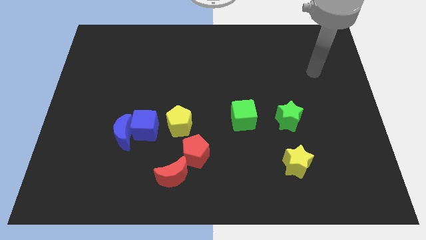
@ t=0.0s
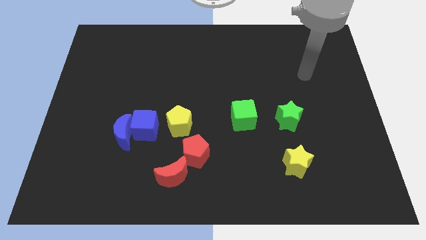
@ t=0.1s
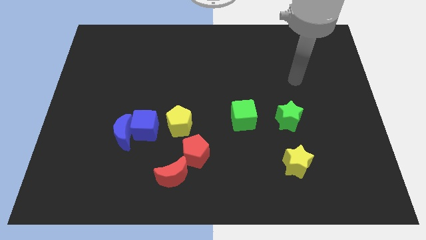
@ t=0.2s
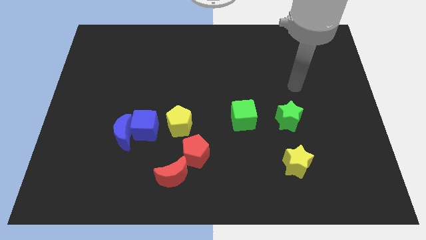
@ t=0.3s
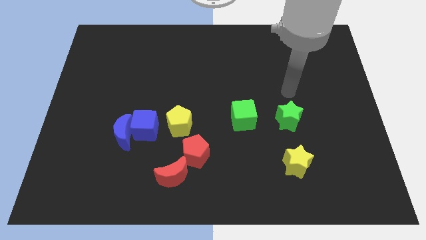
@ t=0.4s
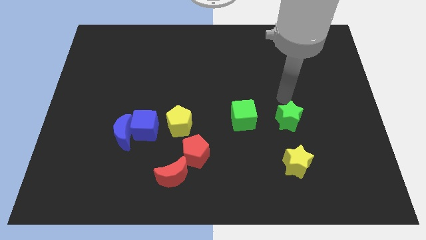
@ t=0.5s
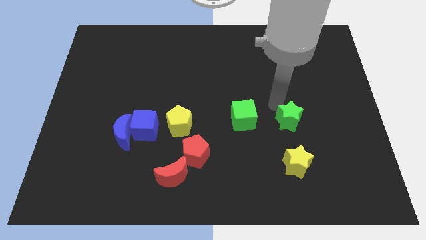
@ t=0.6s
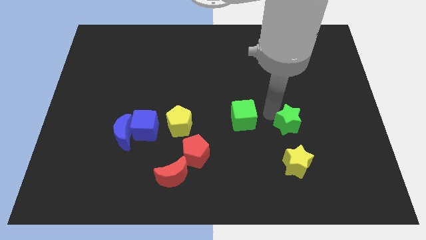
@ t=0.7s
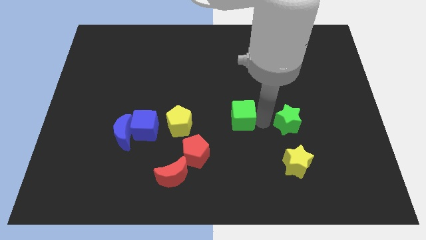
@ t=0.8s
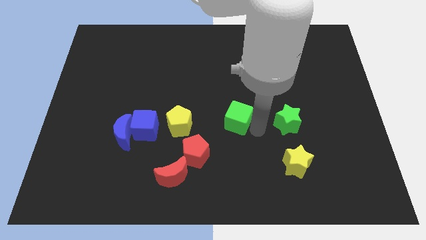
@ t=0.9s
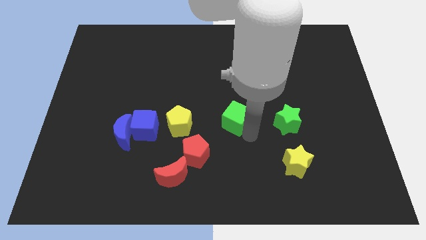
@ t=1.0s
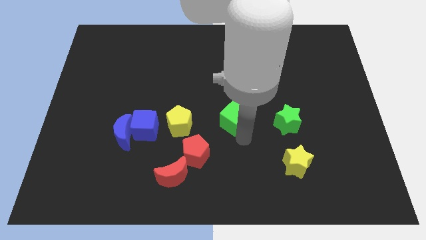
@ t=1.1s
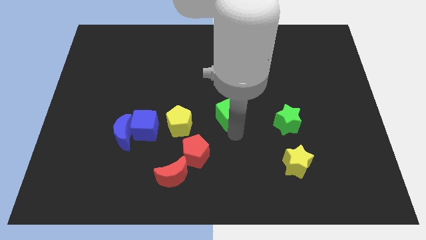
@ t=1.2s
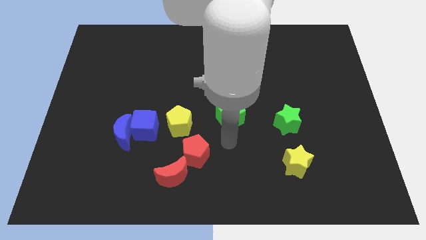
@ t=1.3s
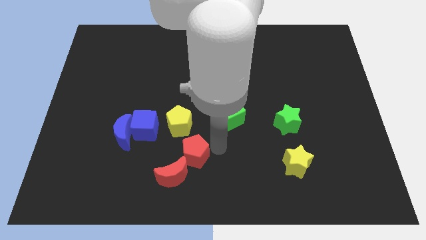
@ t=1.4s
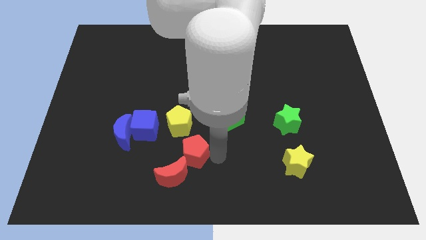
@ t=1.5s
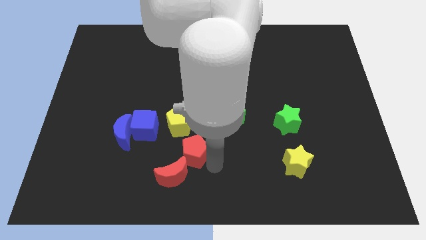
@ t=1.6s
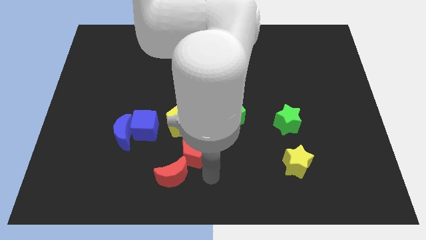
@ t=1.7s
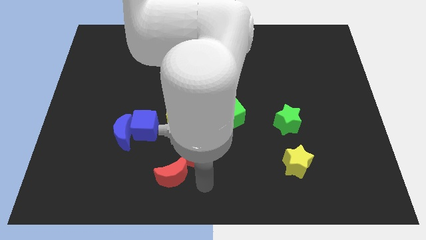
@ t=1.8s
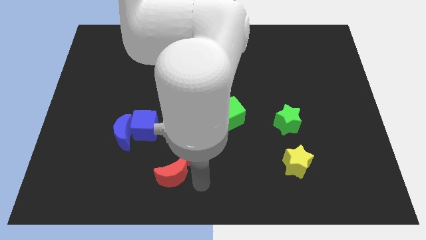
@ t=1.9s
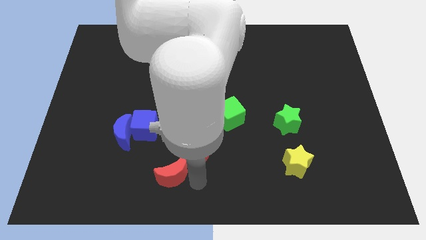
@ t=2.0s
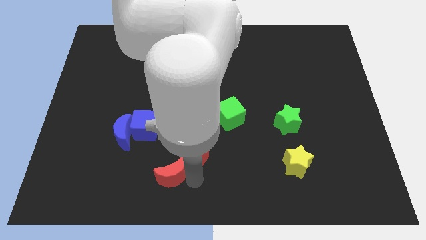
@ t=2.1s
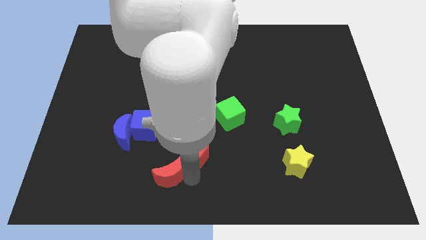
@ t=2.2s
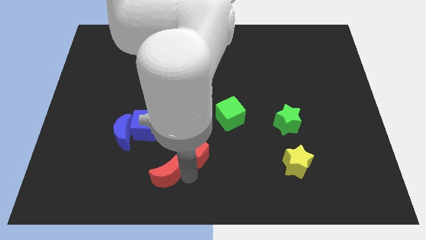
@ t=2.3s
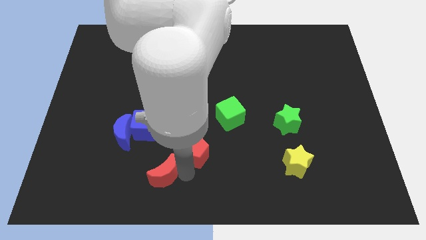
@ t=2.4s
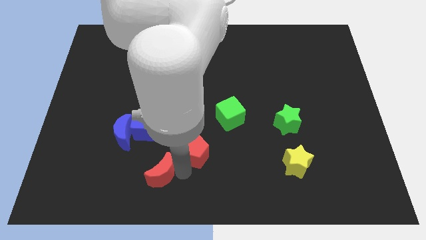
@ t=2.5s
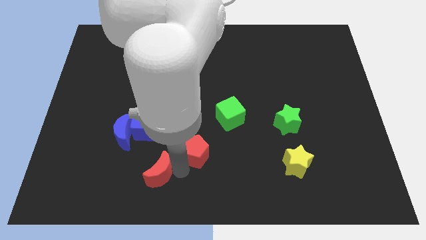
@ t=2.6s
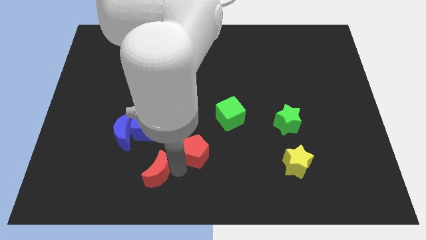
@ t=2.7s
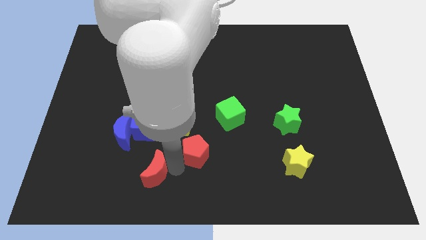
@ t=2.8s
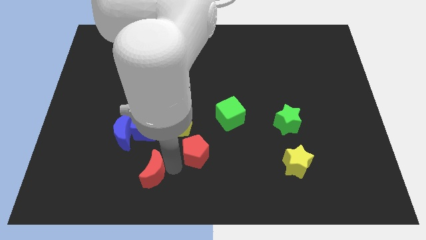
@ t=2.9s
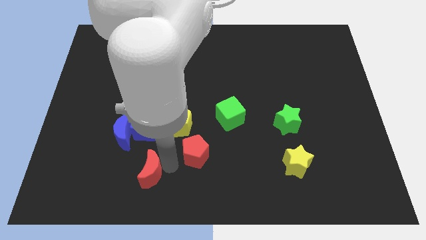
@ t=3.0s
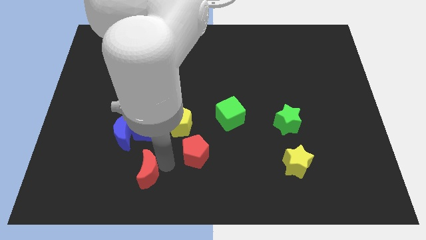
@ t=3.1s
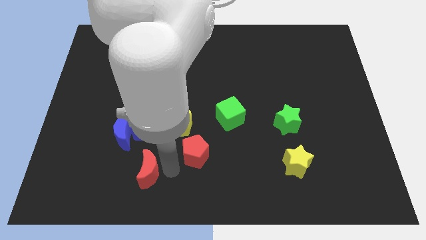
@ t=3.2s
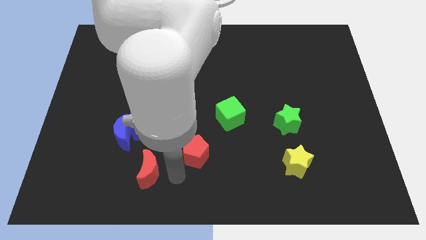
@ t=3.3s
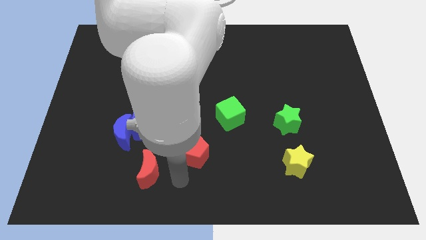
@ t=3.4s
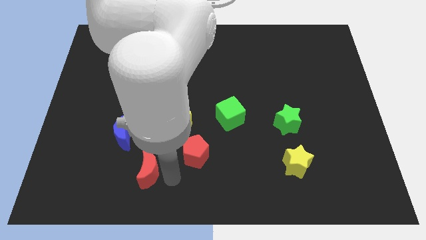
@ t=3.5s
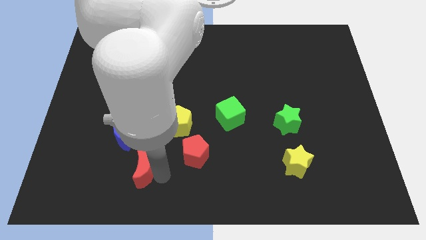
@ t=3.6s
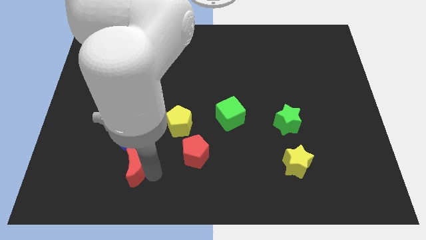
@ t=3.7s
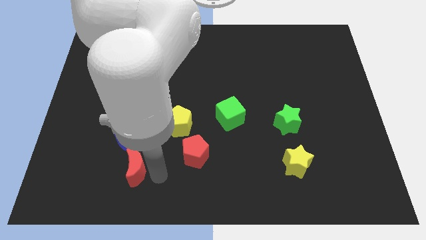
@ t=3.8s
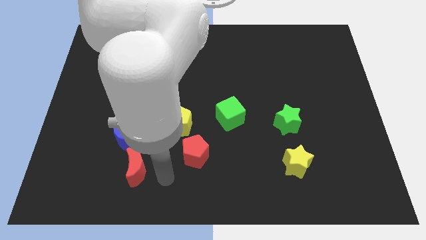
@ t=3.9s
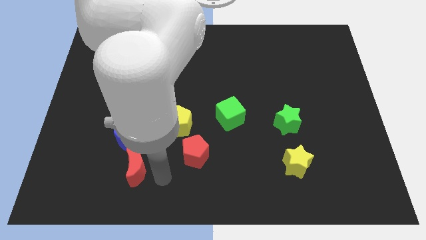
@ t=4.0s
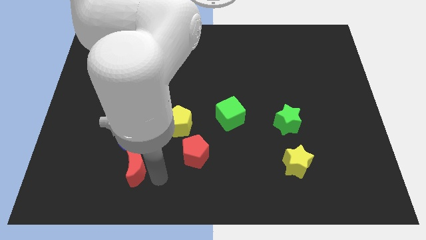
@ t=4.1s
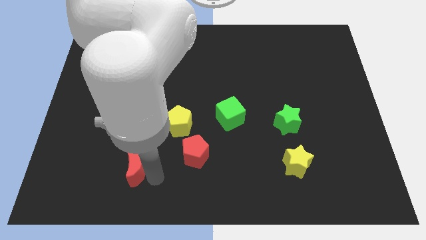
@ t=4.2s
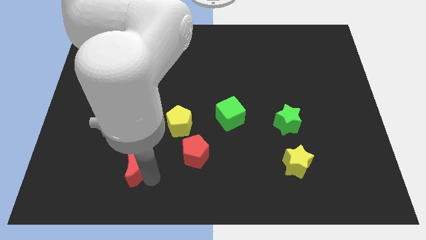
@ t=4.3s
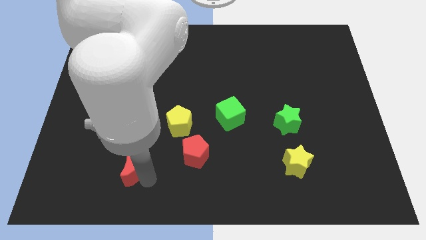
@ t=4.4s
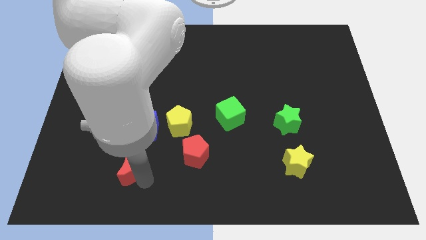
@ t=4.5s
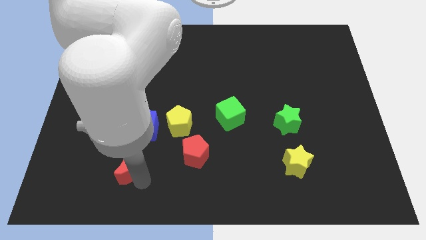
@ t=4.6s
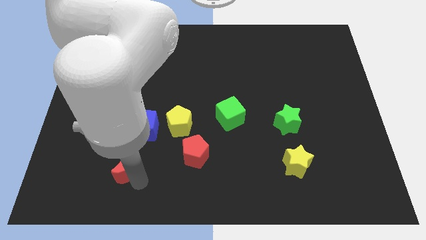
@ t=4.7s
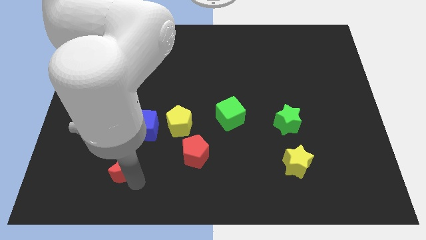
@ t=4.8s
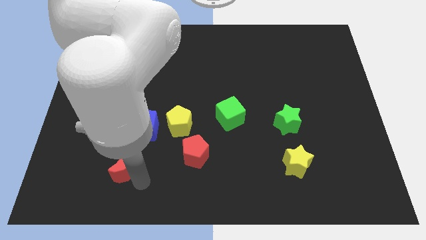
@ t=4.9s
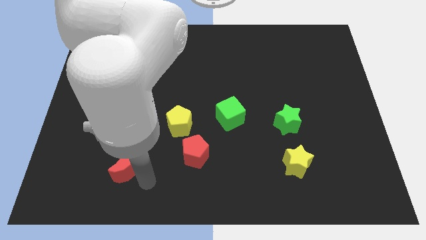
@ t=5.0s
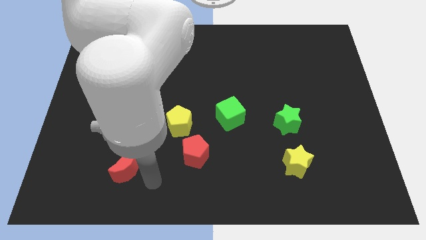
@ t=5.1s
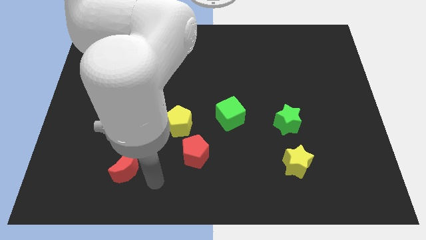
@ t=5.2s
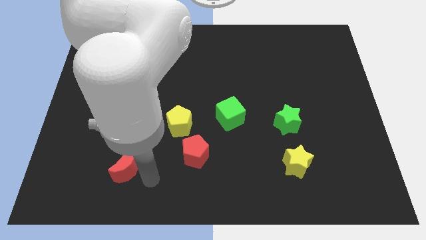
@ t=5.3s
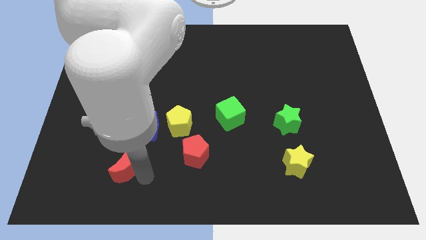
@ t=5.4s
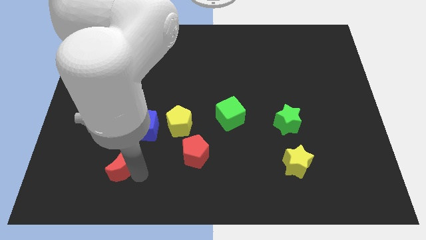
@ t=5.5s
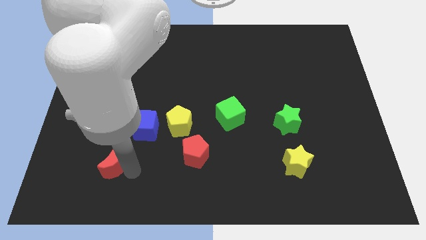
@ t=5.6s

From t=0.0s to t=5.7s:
move the red moon to the bottom left side of the blue moon

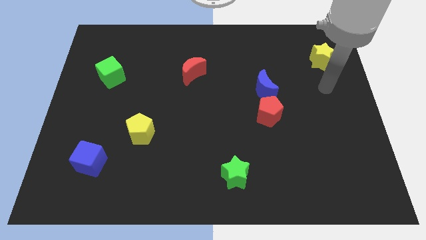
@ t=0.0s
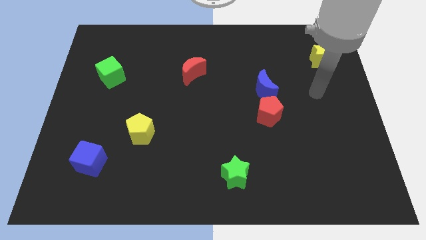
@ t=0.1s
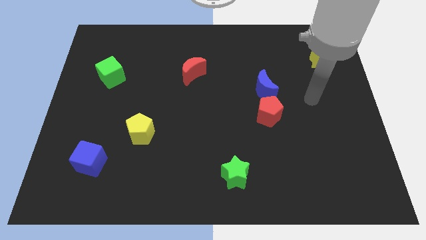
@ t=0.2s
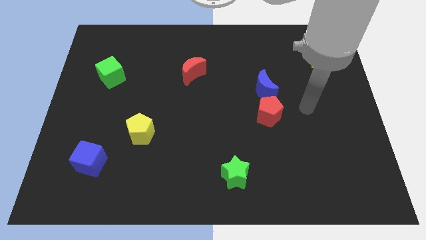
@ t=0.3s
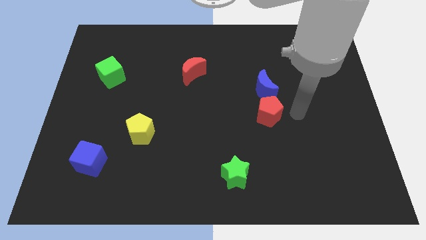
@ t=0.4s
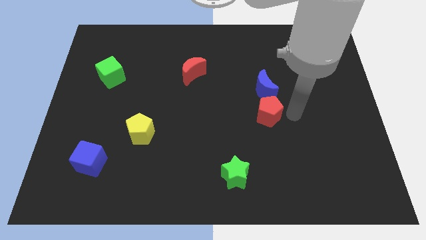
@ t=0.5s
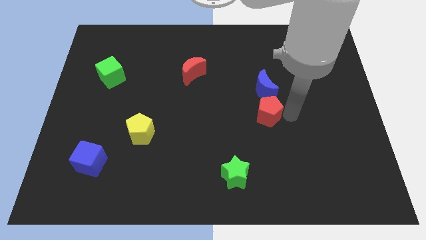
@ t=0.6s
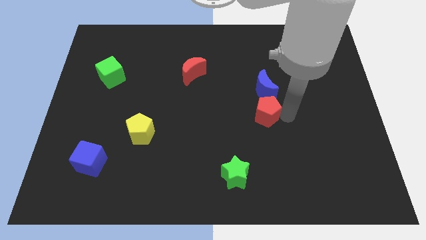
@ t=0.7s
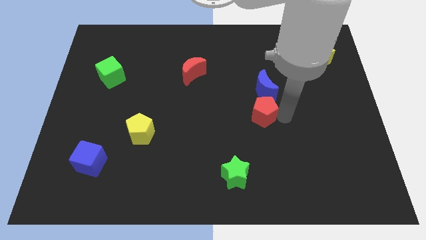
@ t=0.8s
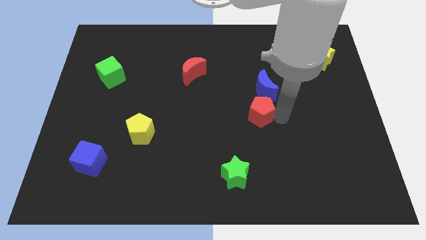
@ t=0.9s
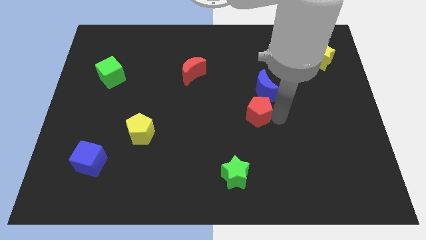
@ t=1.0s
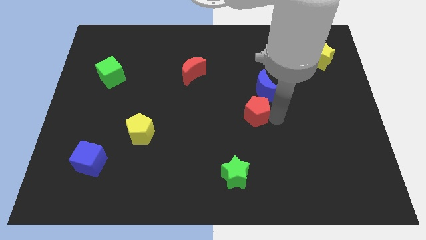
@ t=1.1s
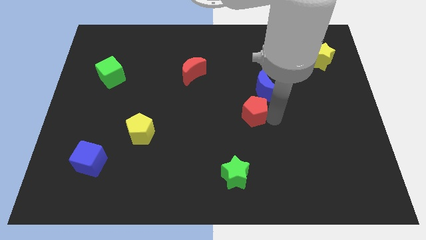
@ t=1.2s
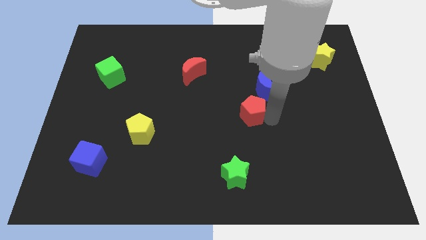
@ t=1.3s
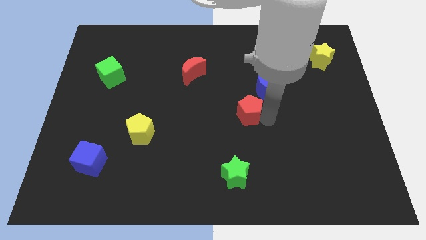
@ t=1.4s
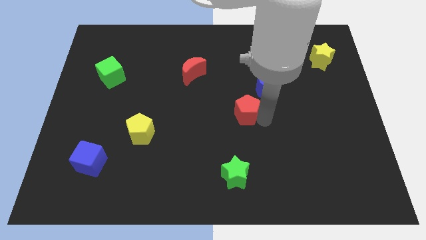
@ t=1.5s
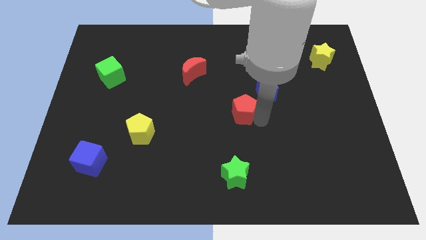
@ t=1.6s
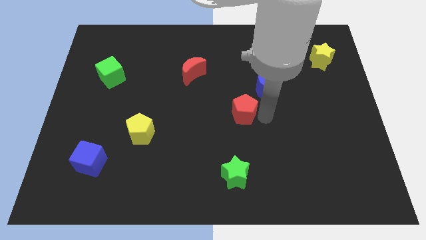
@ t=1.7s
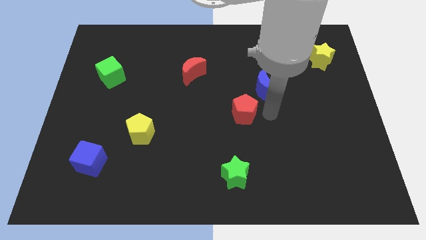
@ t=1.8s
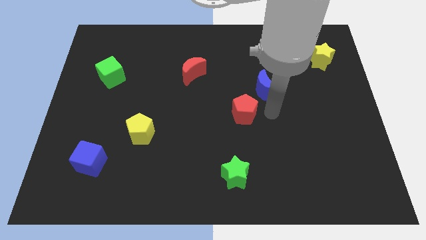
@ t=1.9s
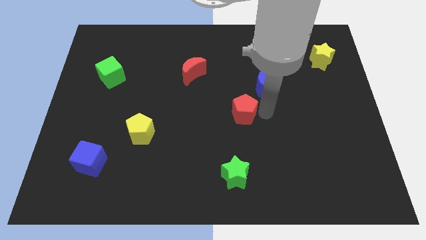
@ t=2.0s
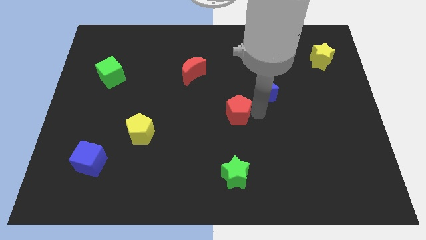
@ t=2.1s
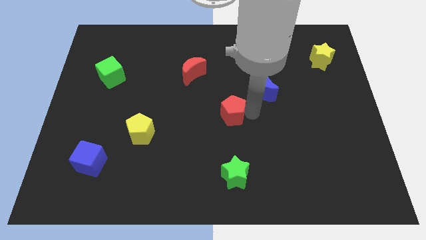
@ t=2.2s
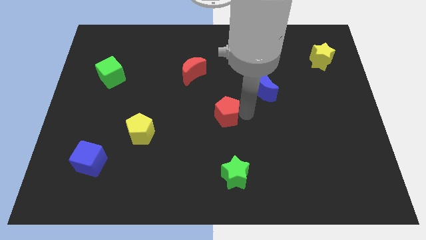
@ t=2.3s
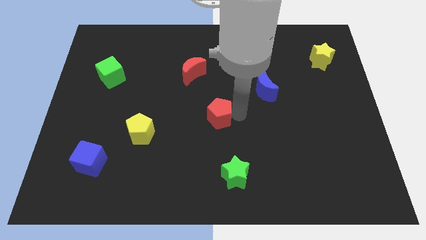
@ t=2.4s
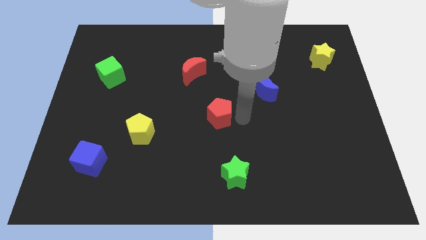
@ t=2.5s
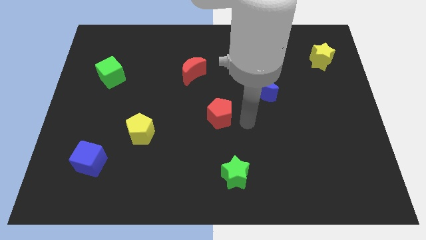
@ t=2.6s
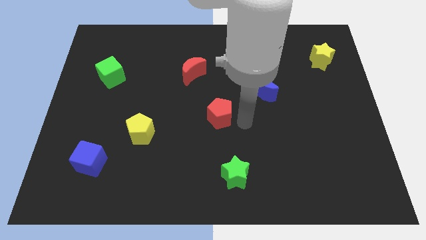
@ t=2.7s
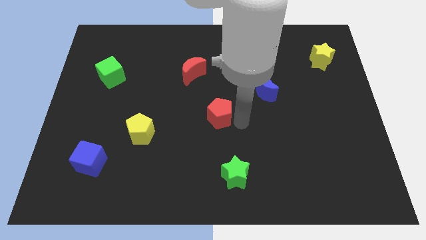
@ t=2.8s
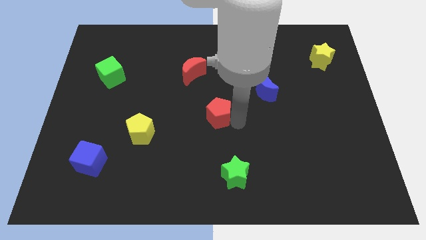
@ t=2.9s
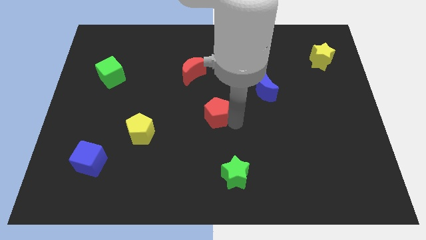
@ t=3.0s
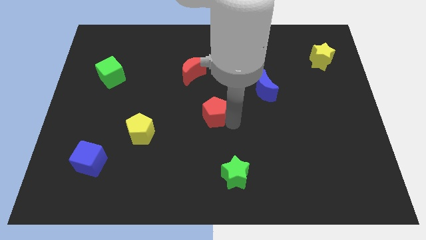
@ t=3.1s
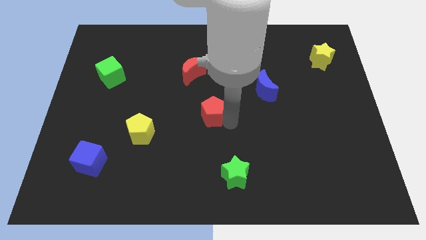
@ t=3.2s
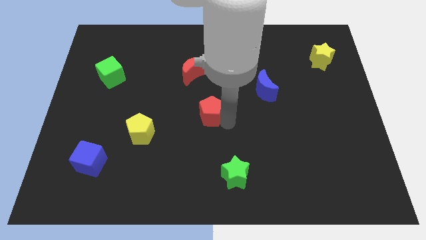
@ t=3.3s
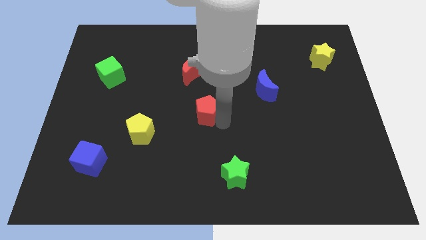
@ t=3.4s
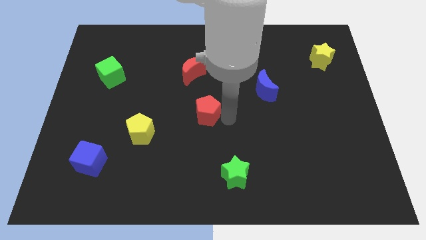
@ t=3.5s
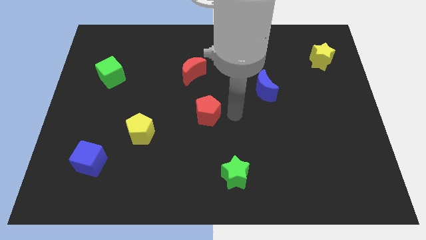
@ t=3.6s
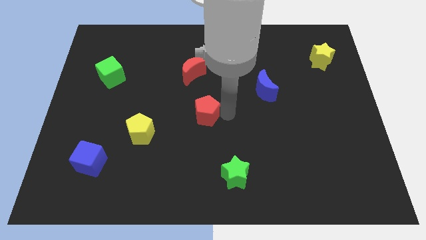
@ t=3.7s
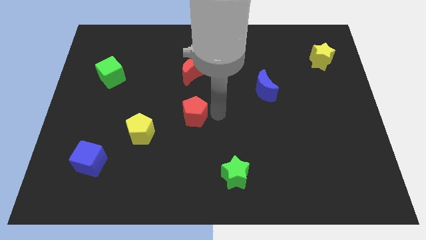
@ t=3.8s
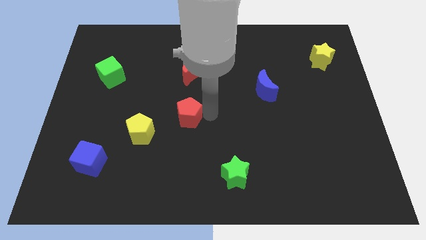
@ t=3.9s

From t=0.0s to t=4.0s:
move the red pentagon to the top right of the yellow pentagon
